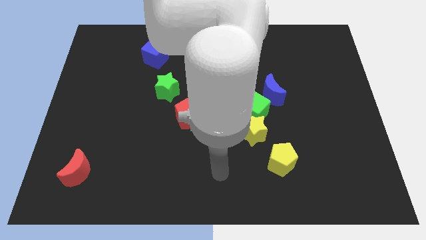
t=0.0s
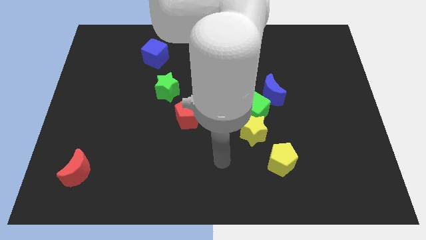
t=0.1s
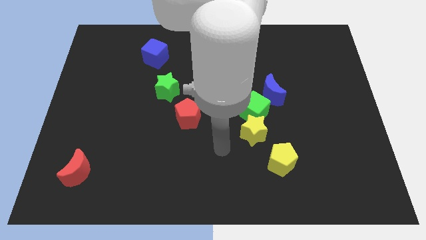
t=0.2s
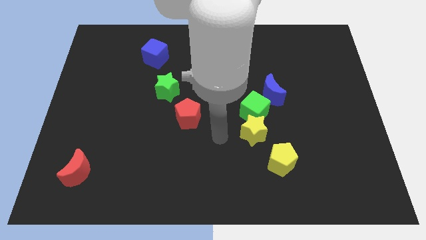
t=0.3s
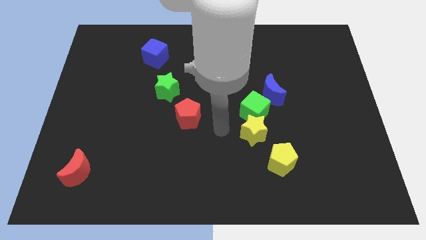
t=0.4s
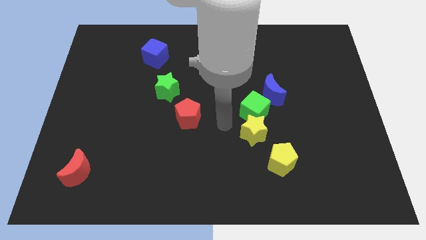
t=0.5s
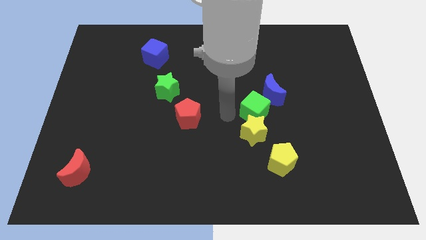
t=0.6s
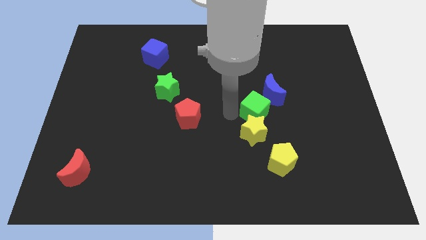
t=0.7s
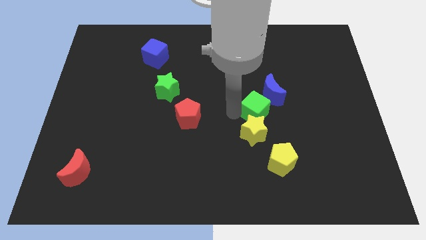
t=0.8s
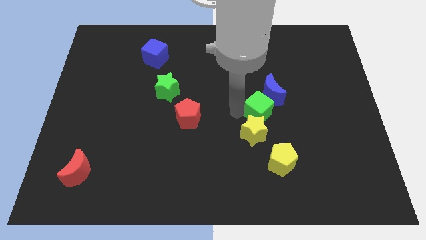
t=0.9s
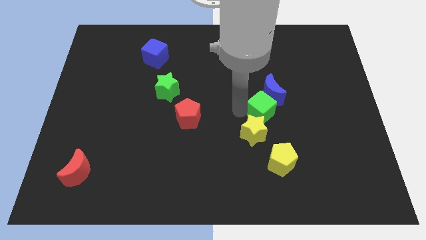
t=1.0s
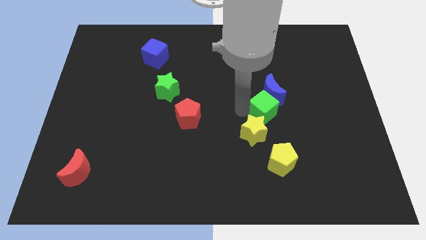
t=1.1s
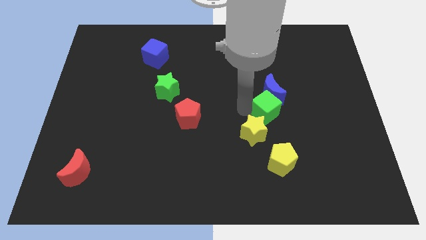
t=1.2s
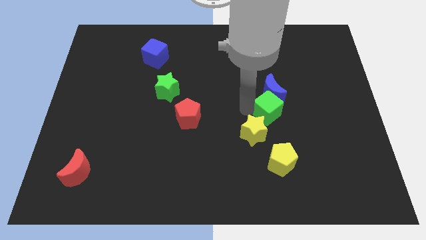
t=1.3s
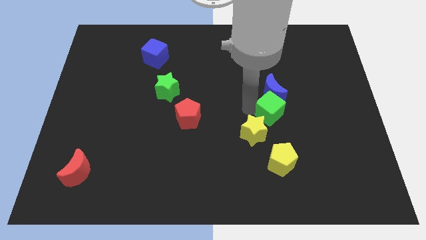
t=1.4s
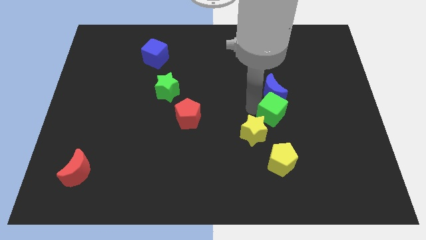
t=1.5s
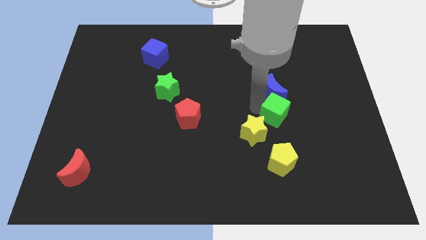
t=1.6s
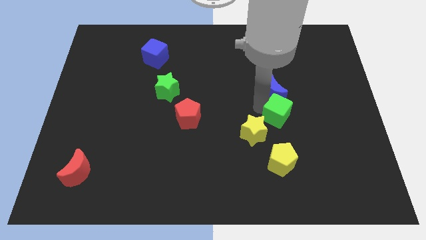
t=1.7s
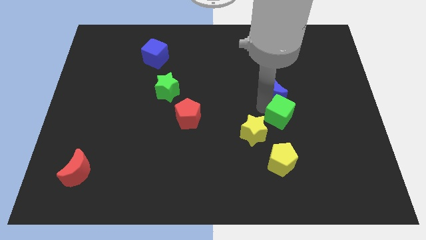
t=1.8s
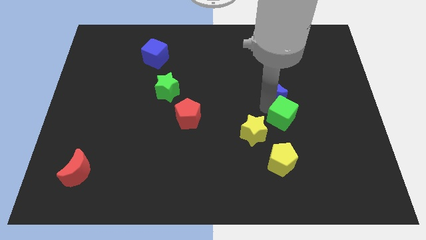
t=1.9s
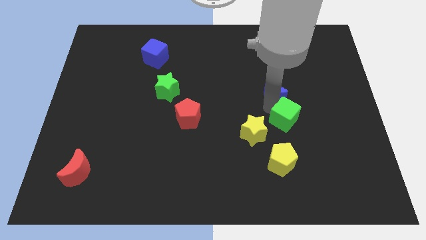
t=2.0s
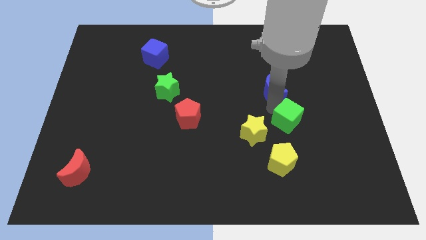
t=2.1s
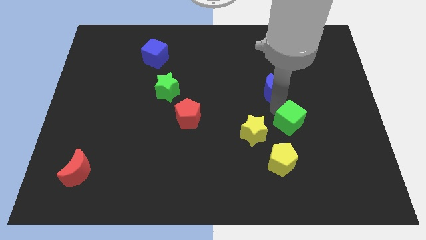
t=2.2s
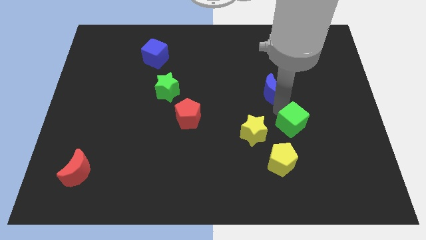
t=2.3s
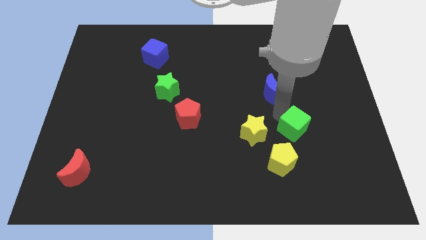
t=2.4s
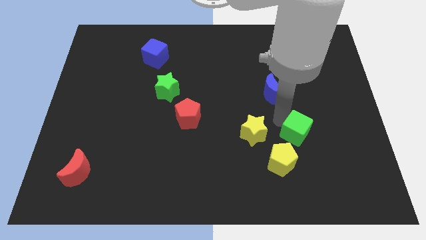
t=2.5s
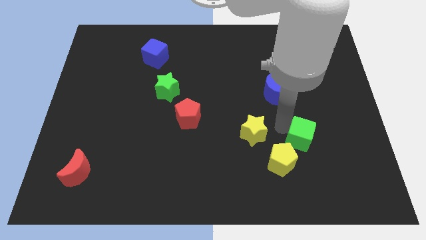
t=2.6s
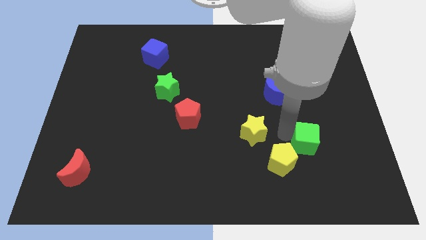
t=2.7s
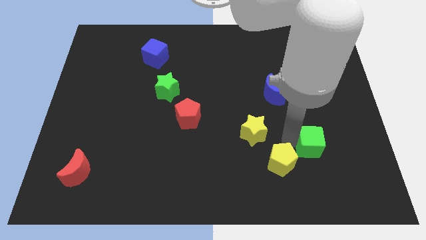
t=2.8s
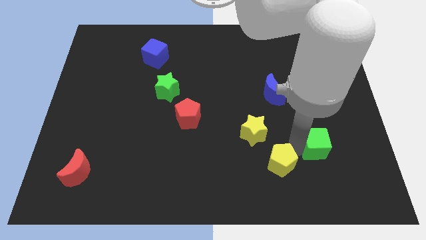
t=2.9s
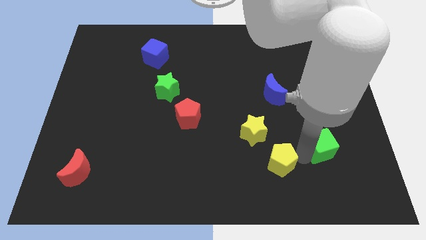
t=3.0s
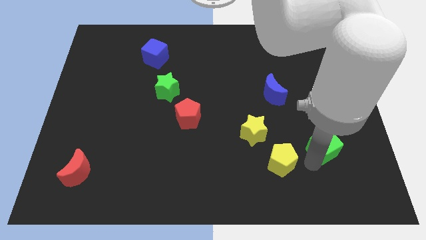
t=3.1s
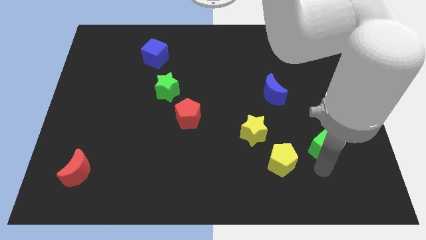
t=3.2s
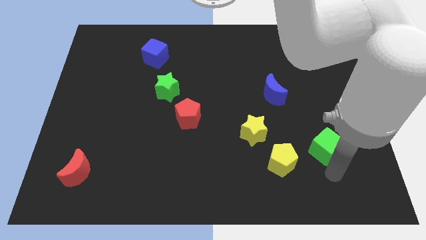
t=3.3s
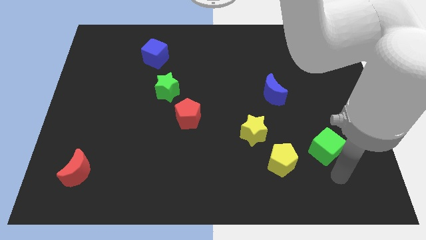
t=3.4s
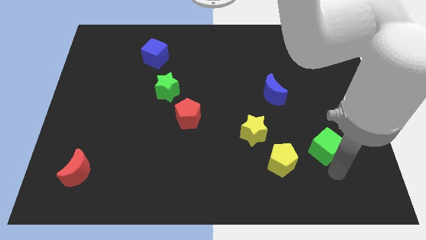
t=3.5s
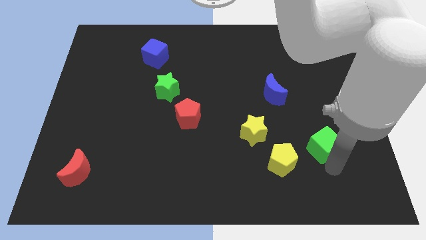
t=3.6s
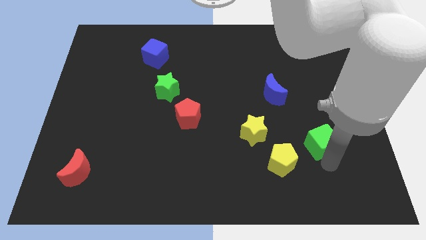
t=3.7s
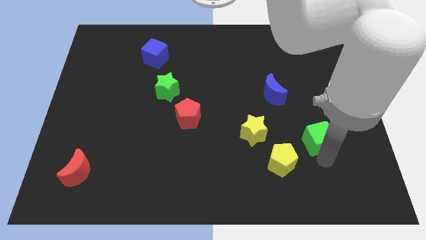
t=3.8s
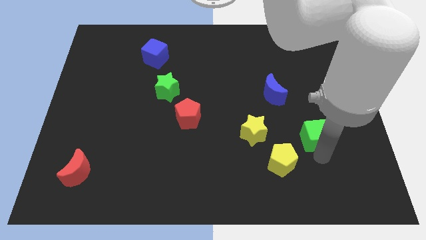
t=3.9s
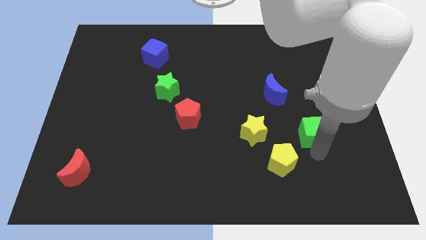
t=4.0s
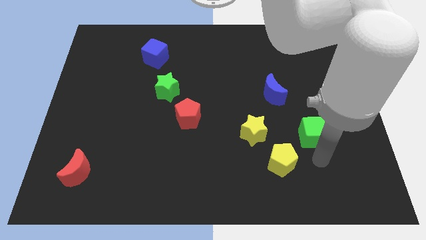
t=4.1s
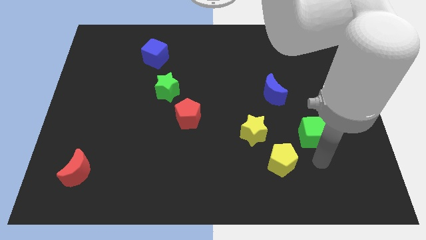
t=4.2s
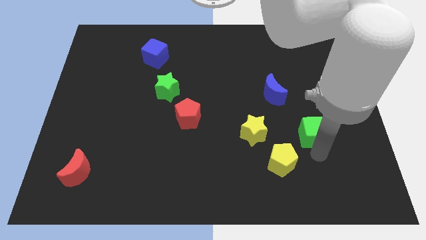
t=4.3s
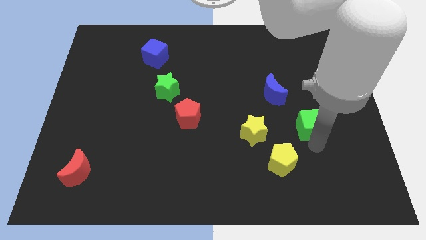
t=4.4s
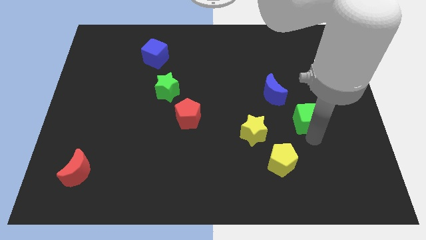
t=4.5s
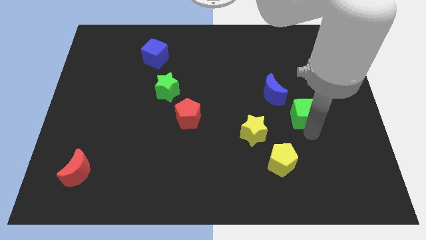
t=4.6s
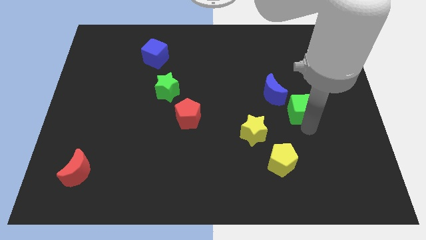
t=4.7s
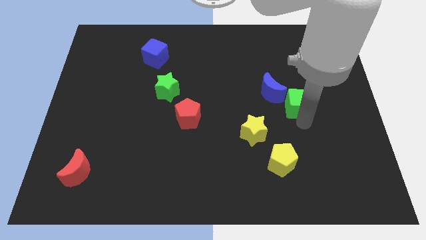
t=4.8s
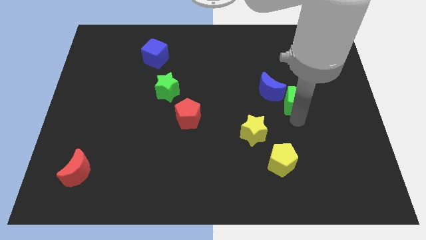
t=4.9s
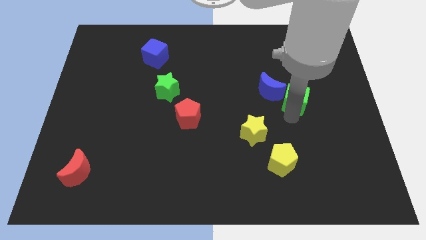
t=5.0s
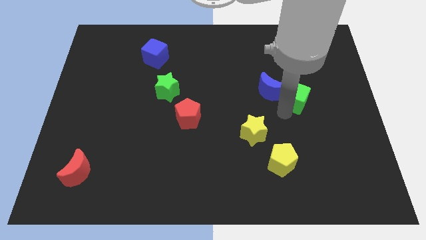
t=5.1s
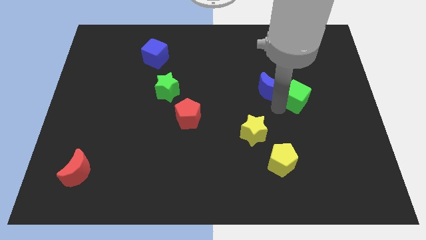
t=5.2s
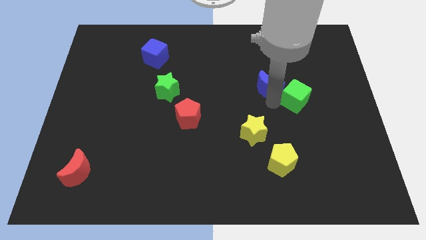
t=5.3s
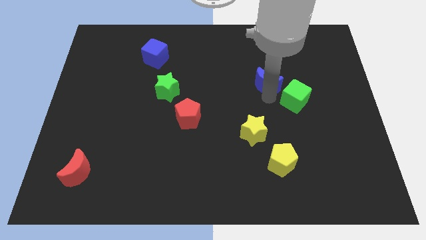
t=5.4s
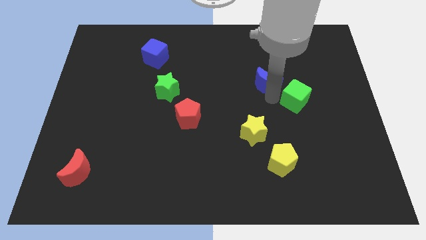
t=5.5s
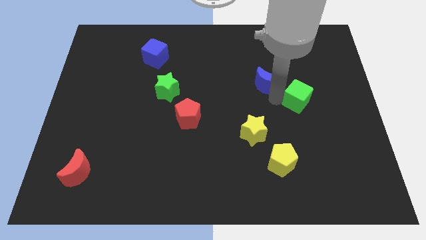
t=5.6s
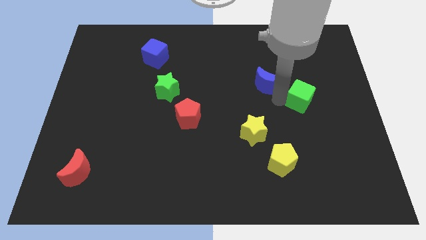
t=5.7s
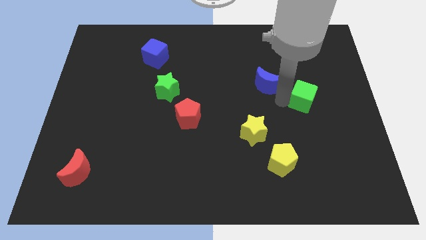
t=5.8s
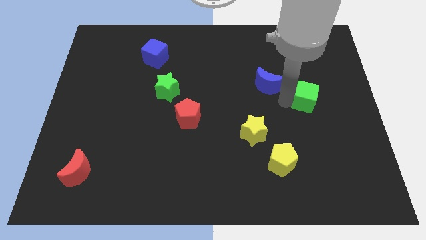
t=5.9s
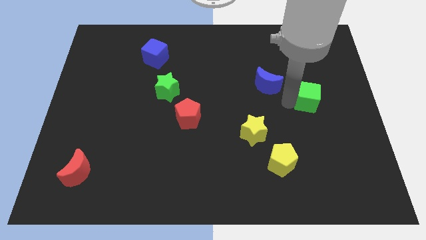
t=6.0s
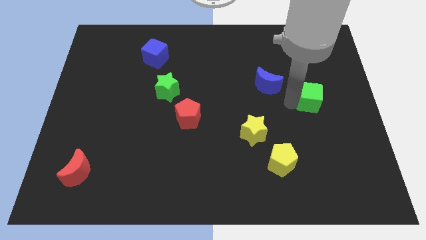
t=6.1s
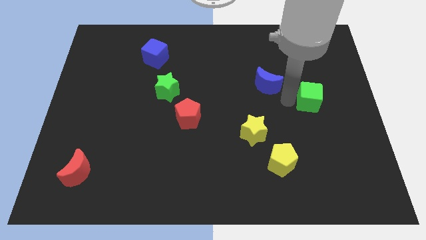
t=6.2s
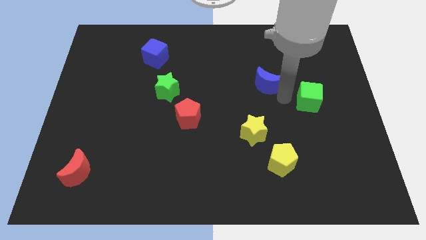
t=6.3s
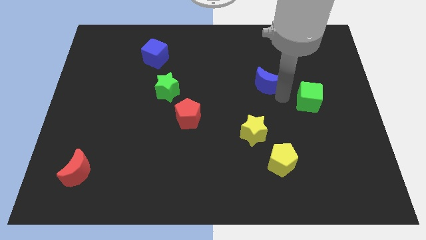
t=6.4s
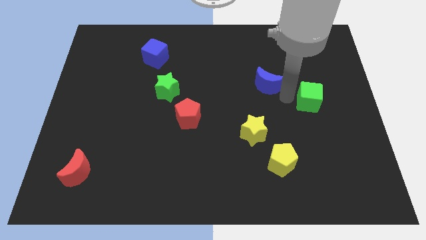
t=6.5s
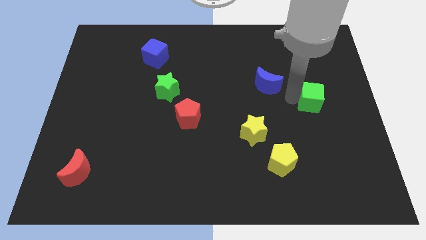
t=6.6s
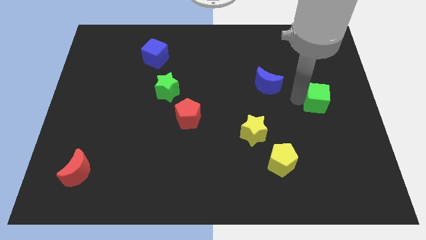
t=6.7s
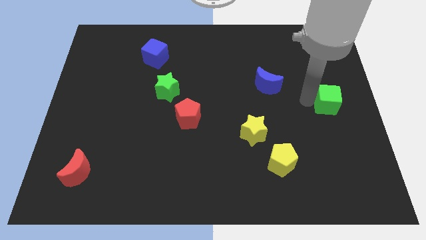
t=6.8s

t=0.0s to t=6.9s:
move the green cube to the right side
